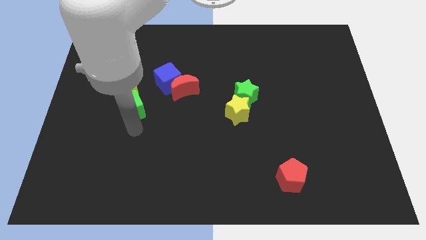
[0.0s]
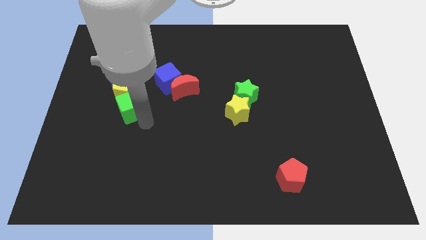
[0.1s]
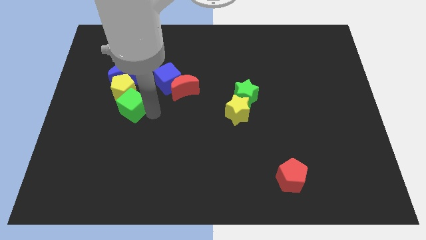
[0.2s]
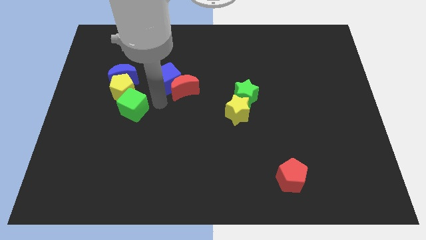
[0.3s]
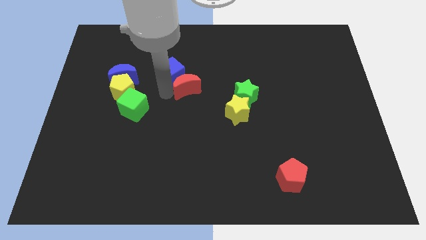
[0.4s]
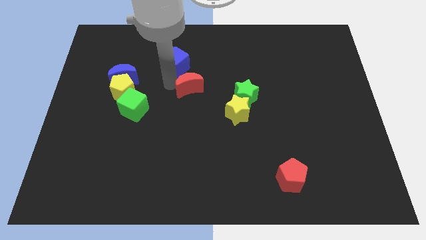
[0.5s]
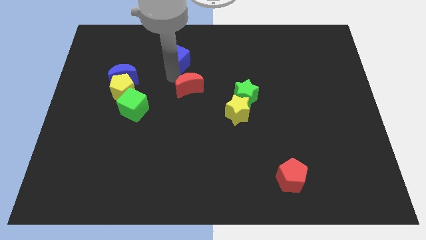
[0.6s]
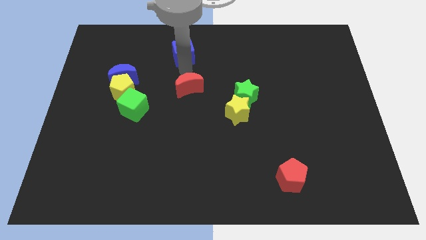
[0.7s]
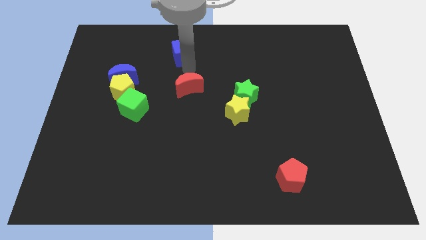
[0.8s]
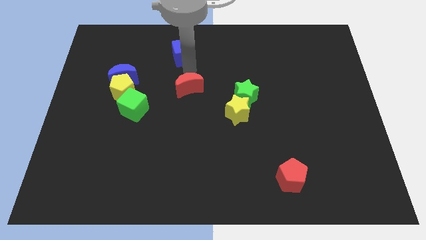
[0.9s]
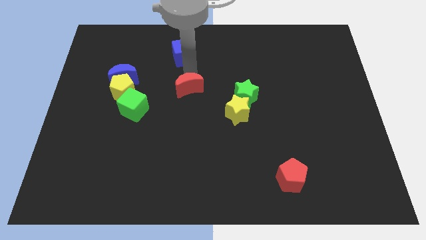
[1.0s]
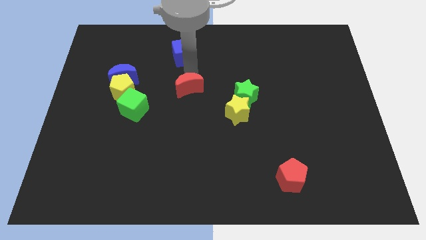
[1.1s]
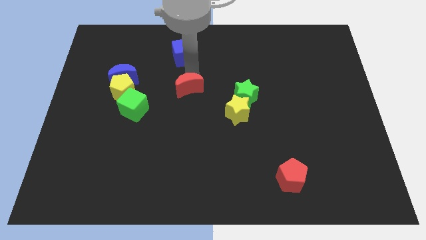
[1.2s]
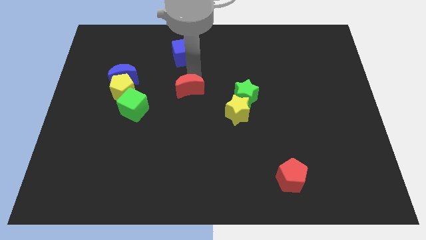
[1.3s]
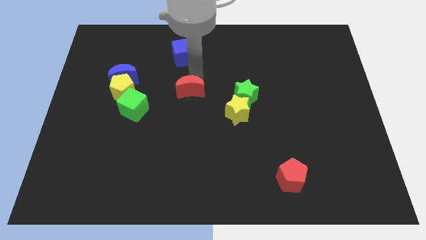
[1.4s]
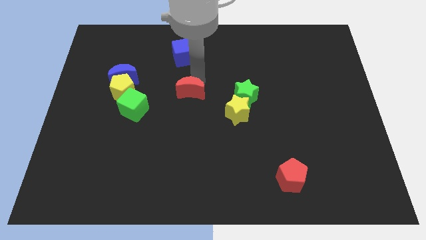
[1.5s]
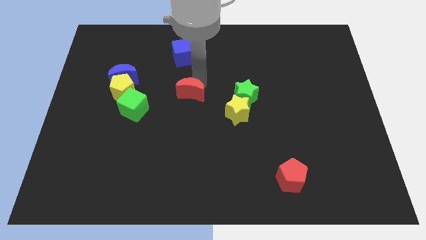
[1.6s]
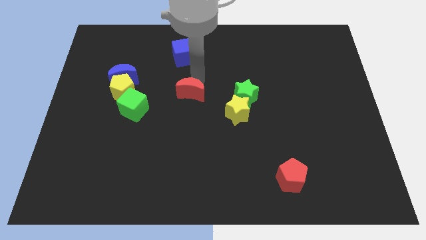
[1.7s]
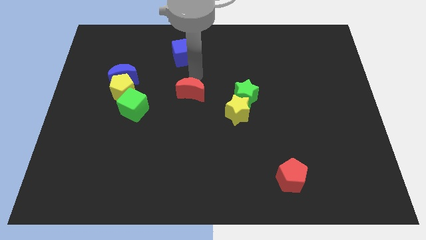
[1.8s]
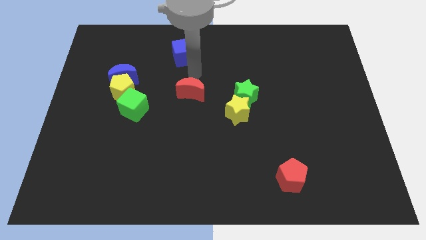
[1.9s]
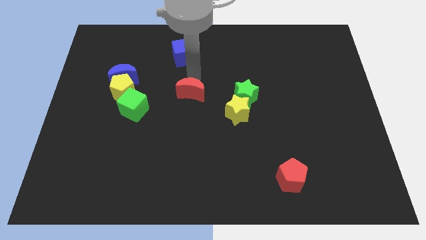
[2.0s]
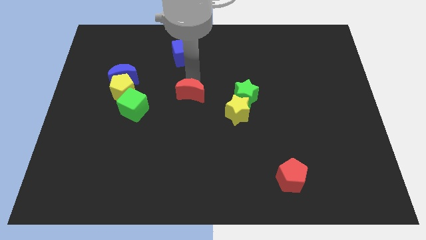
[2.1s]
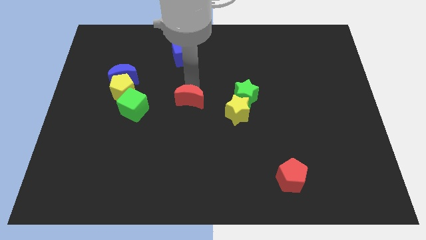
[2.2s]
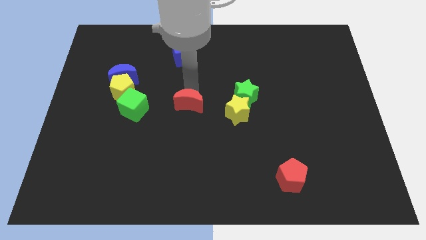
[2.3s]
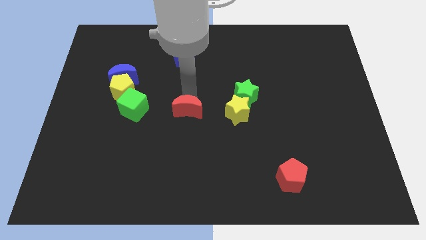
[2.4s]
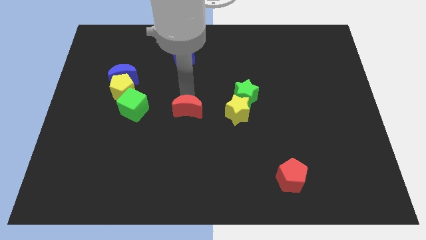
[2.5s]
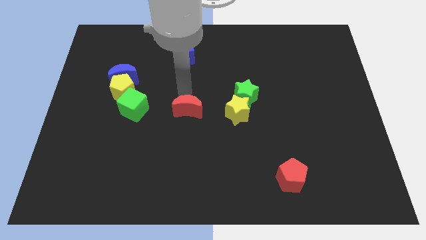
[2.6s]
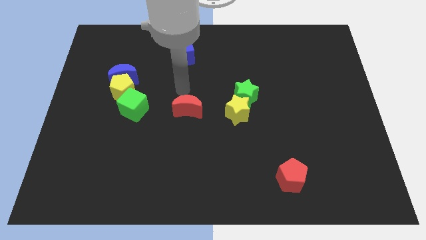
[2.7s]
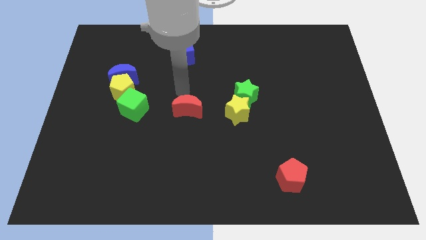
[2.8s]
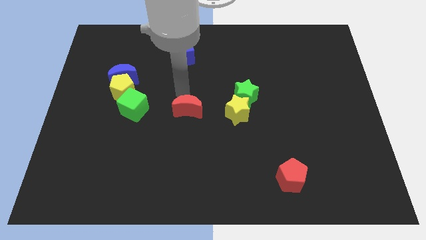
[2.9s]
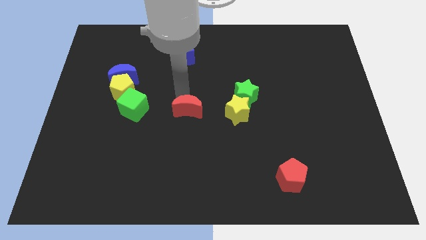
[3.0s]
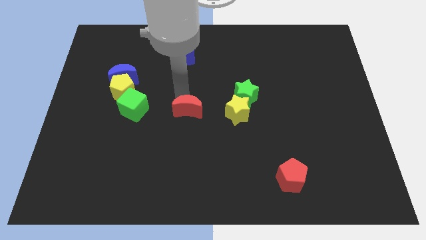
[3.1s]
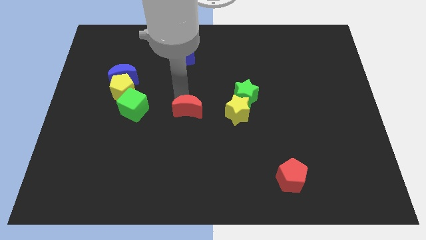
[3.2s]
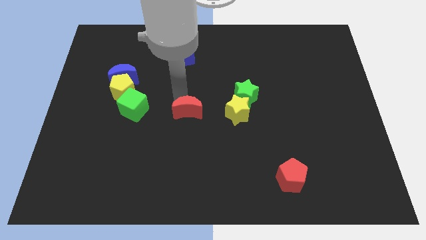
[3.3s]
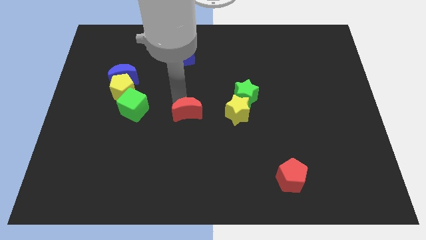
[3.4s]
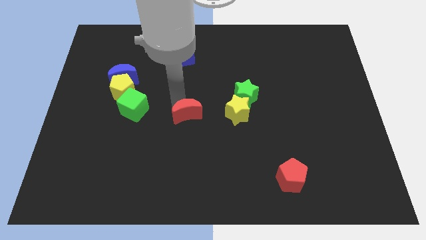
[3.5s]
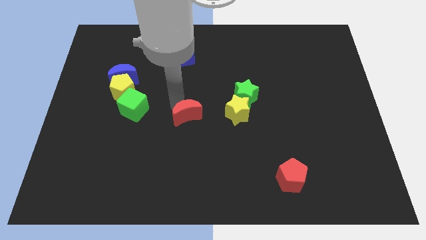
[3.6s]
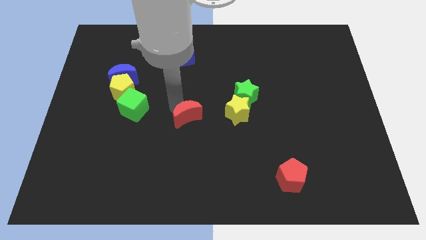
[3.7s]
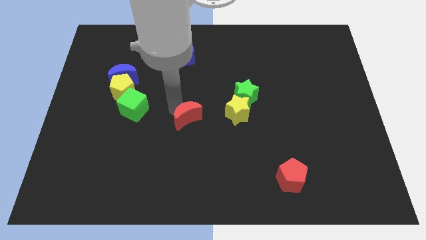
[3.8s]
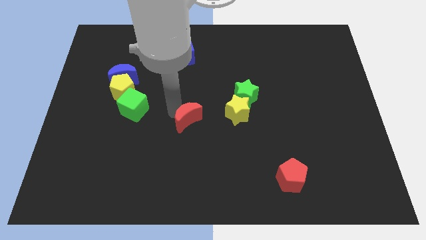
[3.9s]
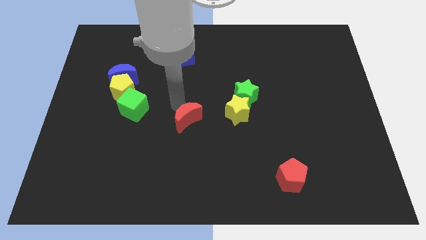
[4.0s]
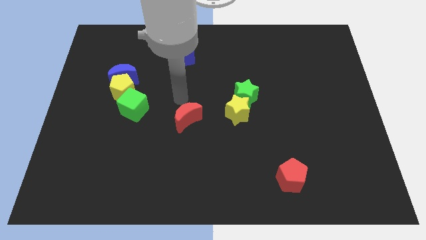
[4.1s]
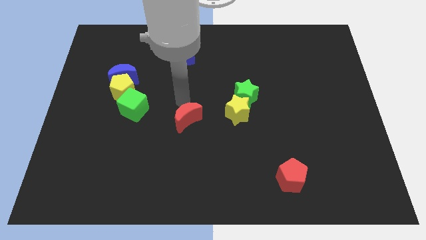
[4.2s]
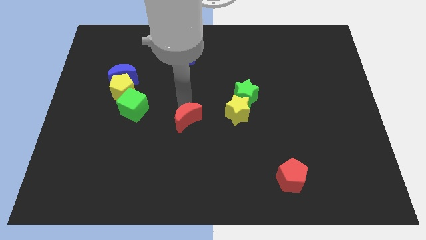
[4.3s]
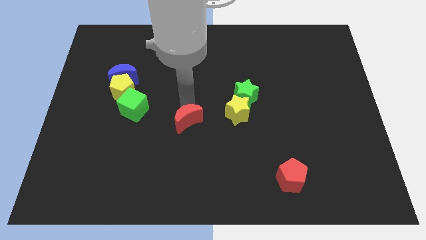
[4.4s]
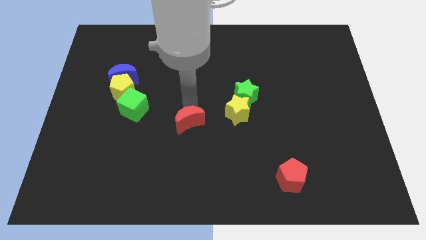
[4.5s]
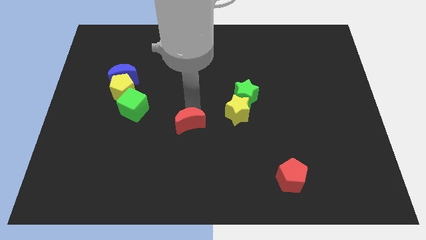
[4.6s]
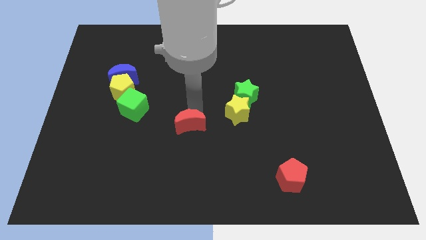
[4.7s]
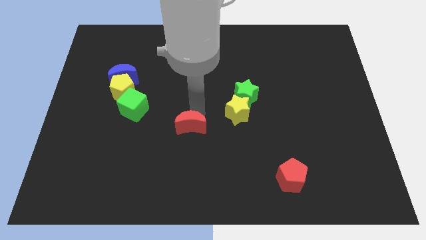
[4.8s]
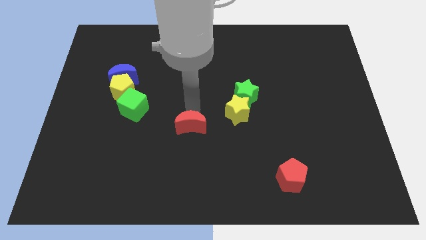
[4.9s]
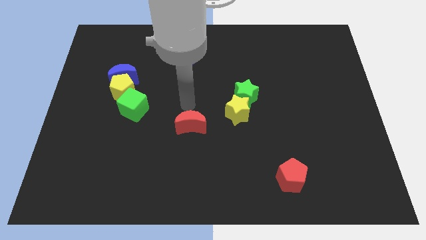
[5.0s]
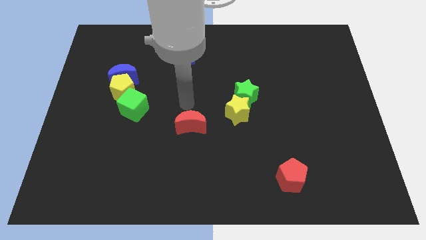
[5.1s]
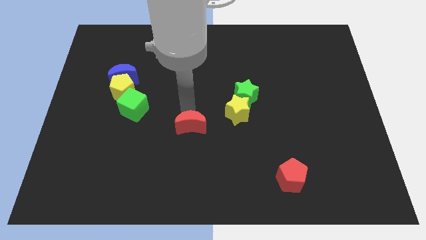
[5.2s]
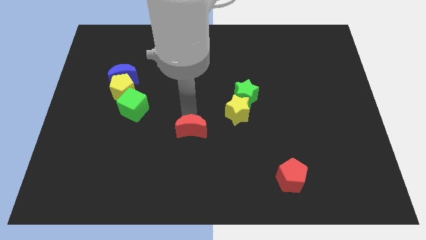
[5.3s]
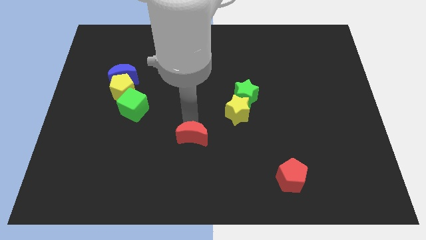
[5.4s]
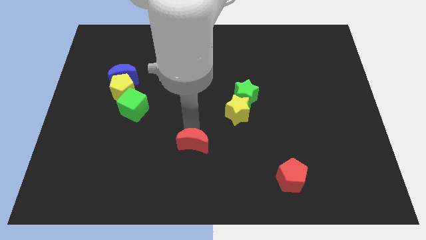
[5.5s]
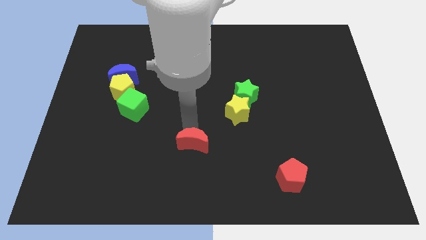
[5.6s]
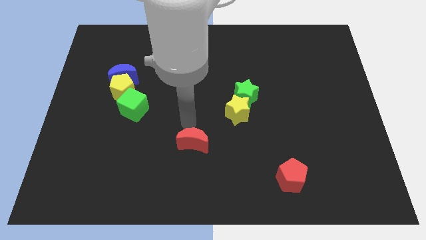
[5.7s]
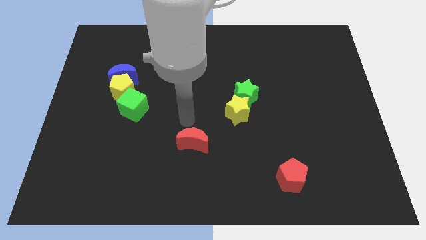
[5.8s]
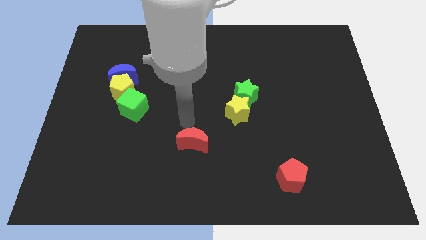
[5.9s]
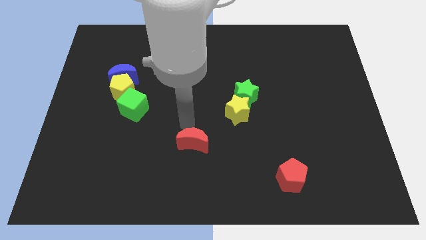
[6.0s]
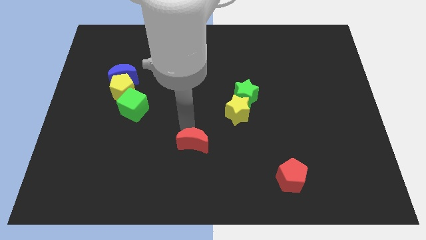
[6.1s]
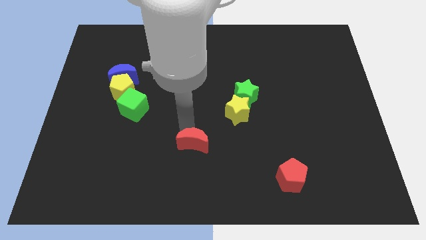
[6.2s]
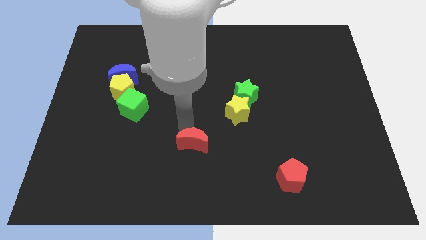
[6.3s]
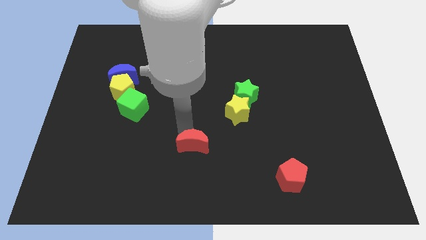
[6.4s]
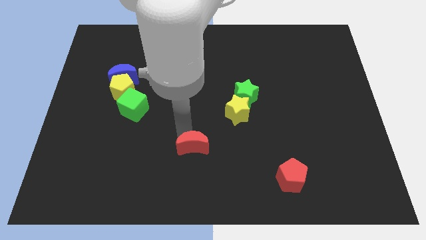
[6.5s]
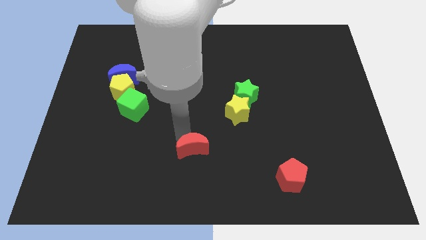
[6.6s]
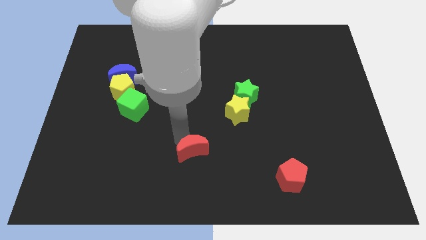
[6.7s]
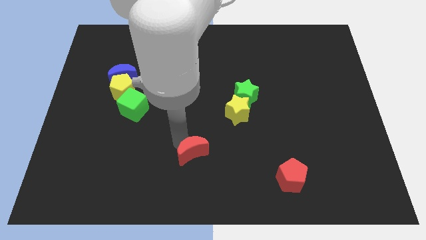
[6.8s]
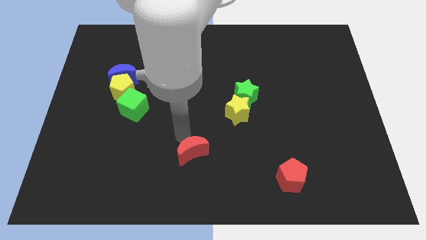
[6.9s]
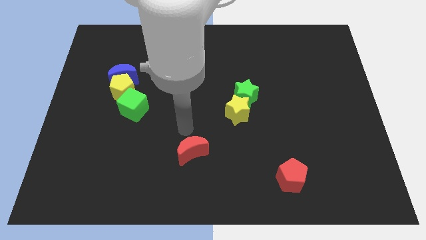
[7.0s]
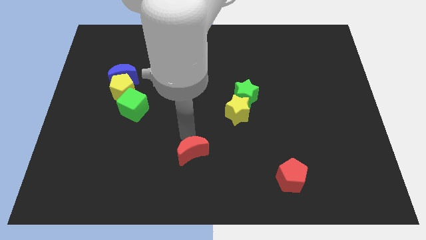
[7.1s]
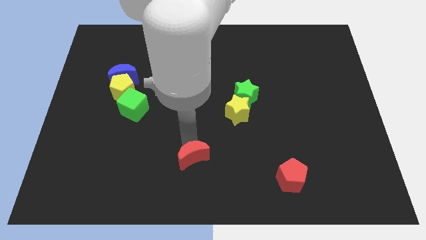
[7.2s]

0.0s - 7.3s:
push the red moon to the bottom
